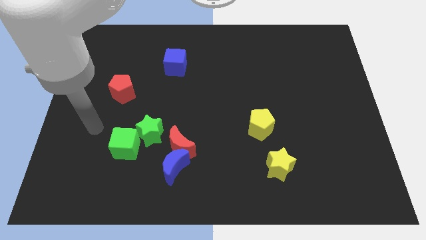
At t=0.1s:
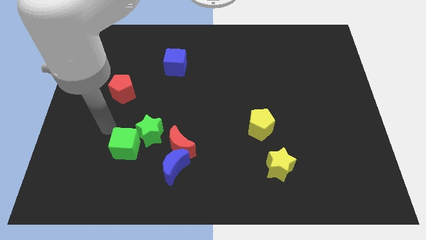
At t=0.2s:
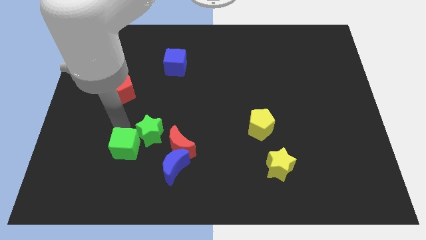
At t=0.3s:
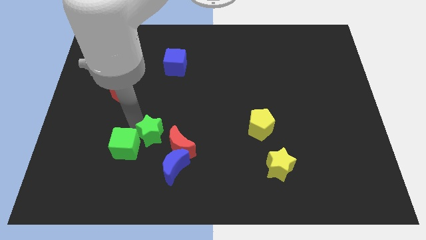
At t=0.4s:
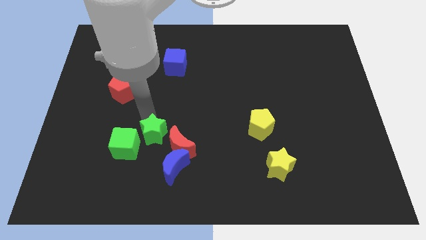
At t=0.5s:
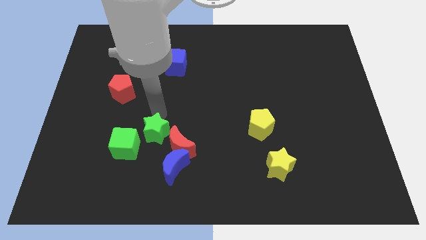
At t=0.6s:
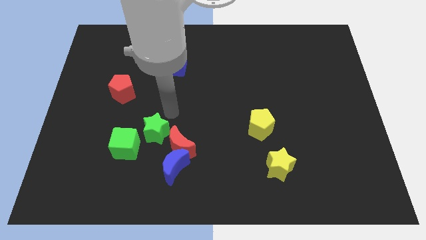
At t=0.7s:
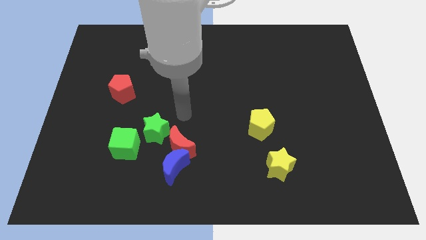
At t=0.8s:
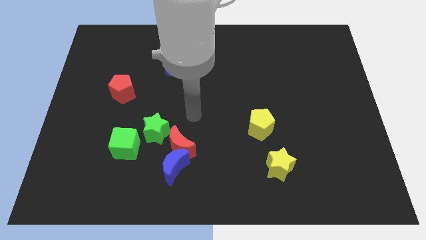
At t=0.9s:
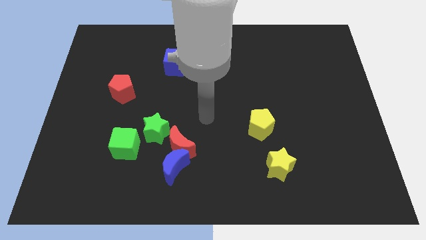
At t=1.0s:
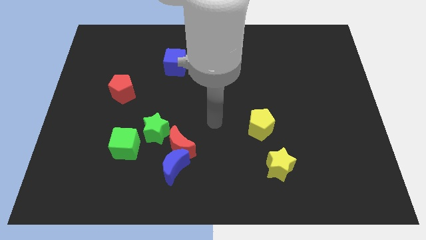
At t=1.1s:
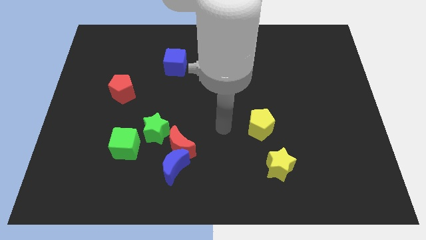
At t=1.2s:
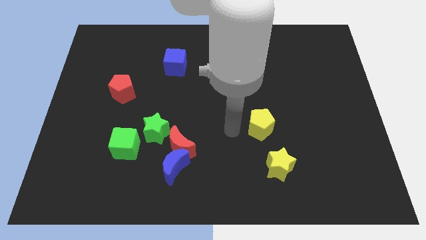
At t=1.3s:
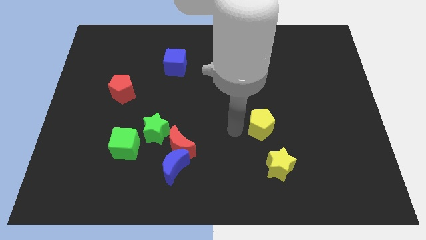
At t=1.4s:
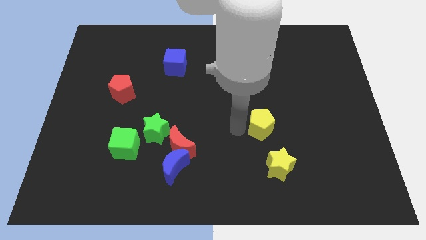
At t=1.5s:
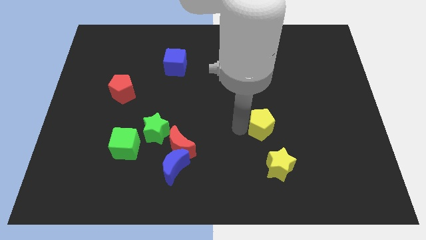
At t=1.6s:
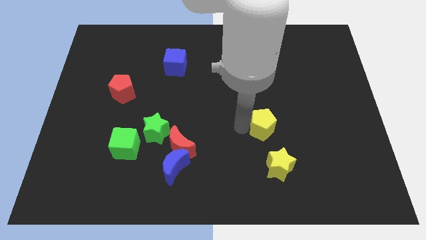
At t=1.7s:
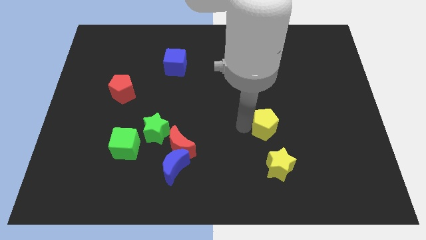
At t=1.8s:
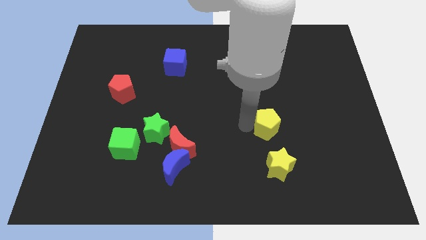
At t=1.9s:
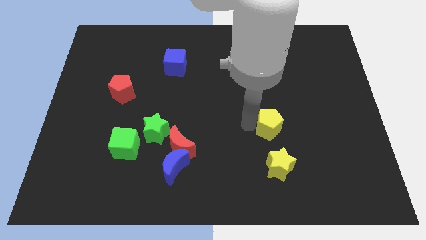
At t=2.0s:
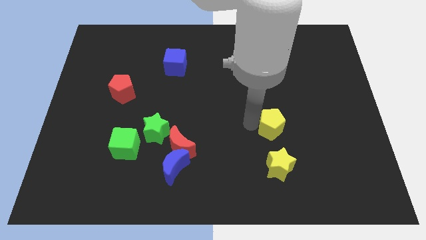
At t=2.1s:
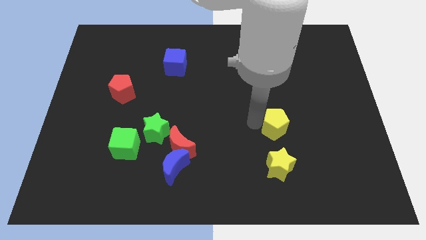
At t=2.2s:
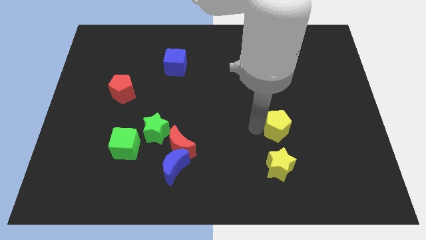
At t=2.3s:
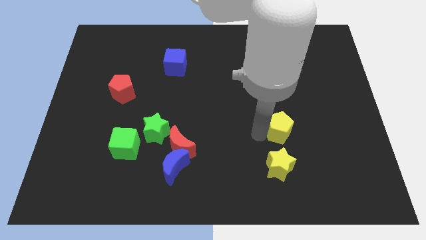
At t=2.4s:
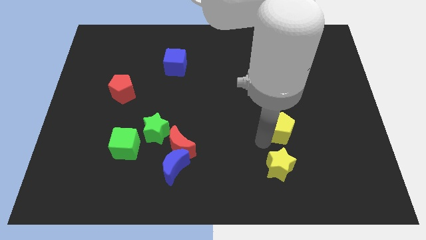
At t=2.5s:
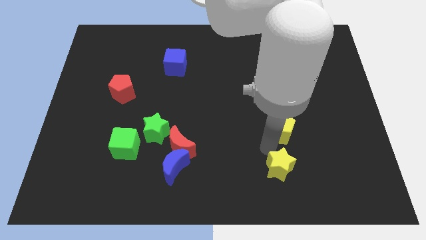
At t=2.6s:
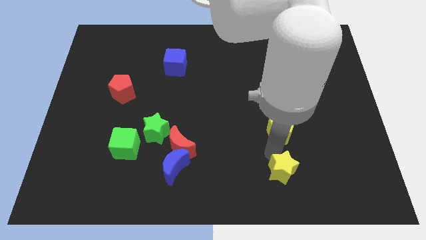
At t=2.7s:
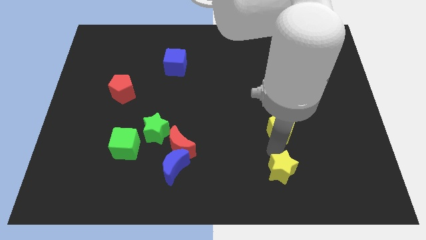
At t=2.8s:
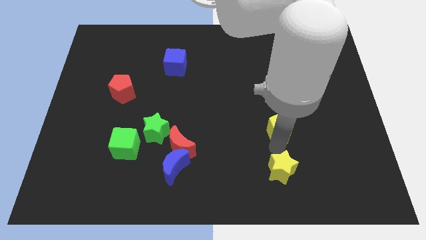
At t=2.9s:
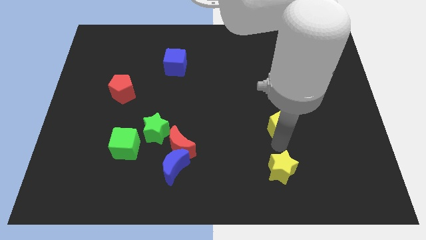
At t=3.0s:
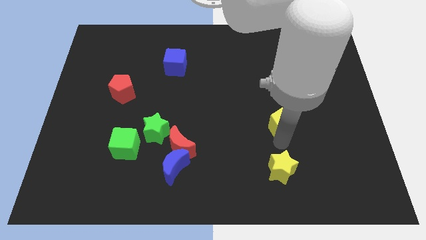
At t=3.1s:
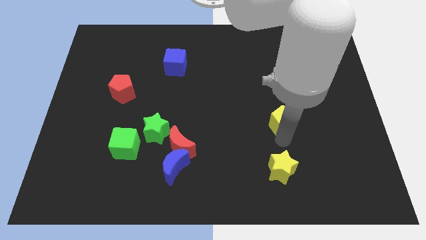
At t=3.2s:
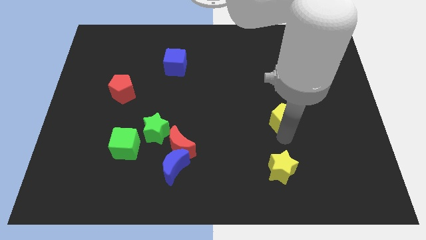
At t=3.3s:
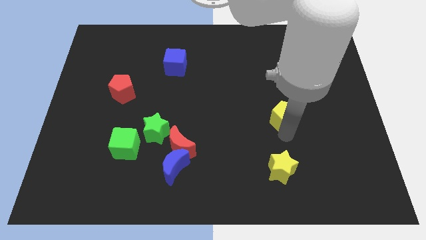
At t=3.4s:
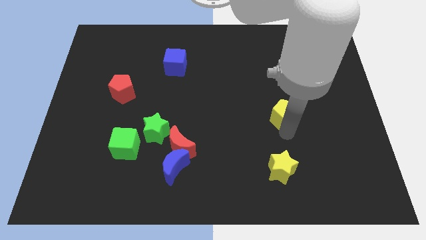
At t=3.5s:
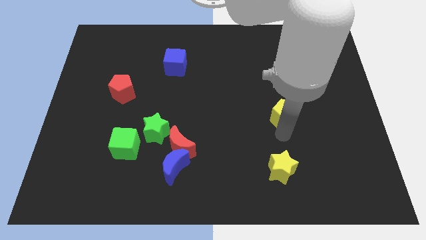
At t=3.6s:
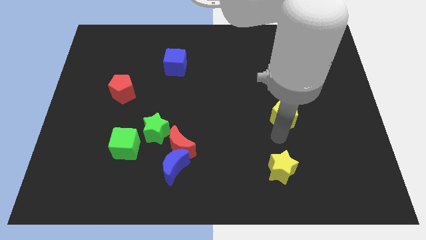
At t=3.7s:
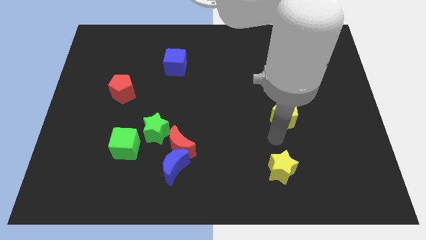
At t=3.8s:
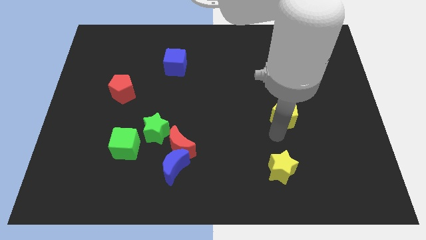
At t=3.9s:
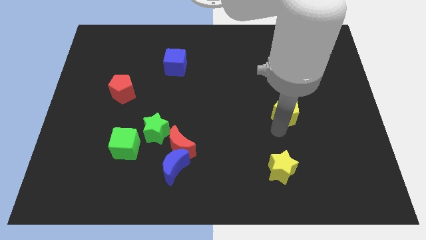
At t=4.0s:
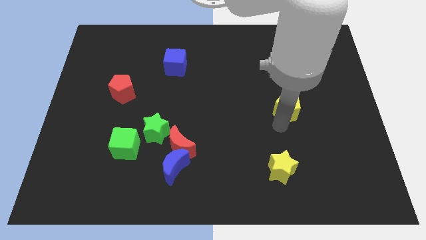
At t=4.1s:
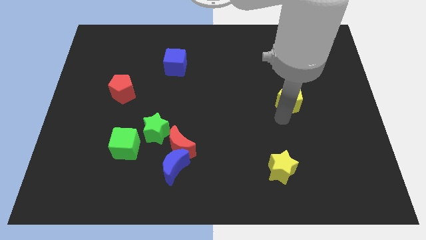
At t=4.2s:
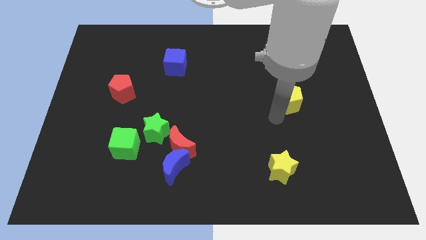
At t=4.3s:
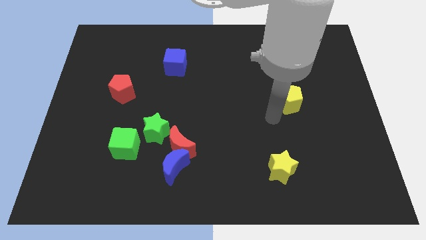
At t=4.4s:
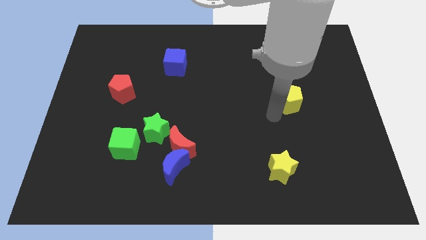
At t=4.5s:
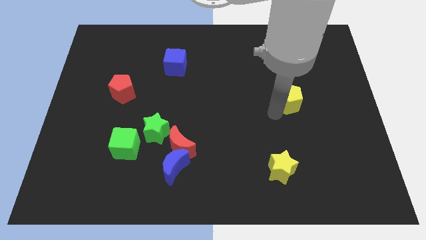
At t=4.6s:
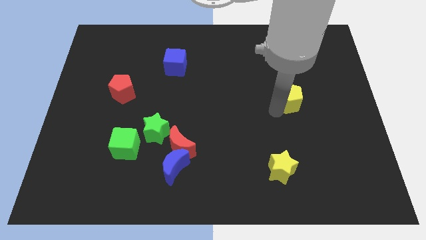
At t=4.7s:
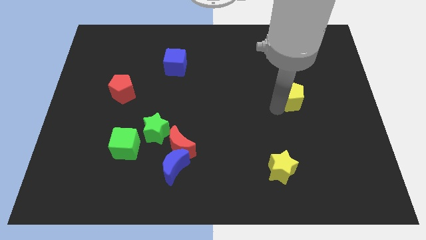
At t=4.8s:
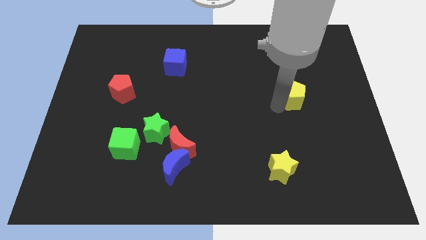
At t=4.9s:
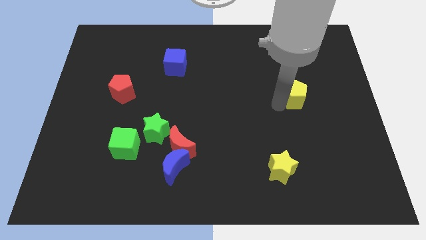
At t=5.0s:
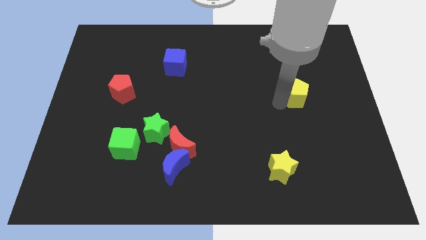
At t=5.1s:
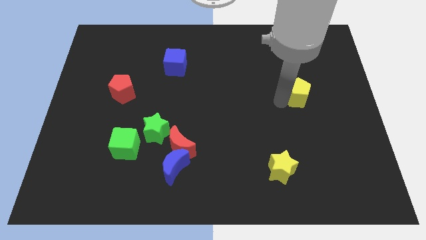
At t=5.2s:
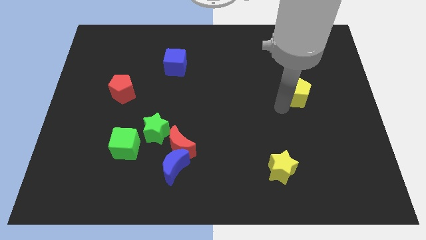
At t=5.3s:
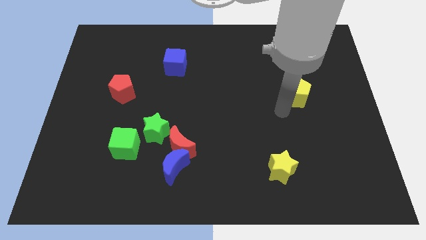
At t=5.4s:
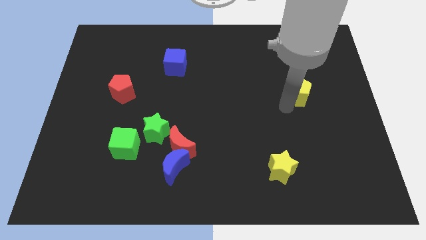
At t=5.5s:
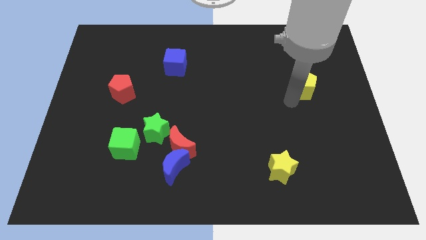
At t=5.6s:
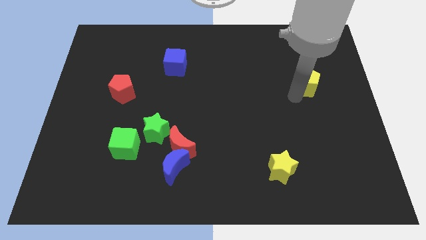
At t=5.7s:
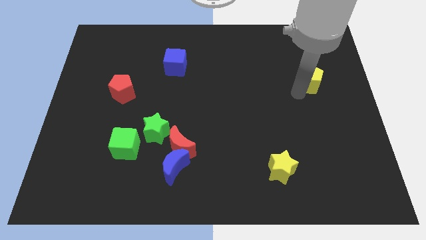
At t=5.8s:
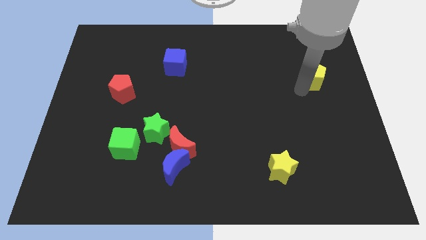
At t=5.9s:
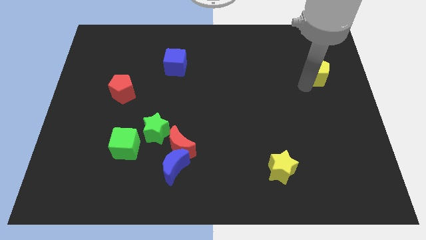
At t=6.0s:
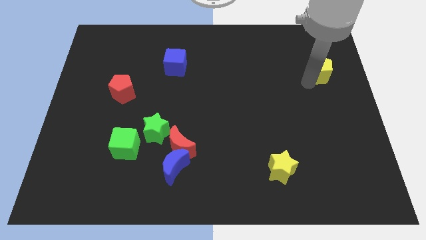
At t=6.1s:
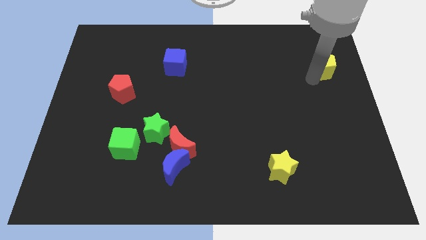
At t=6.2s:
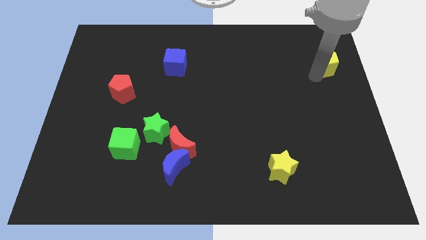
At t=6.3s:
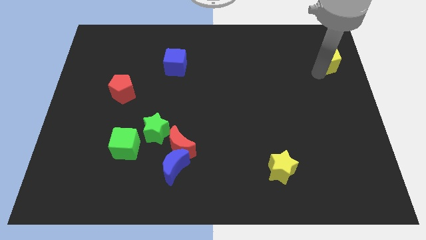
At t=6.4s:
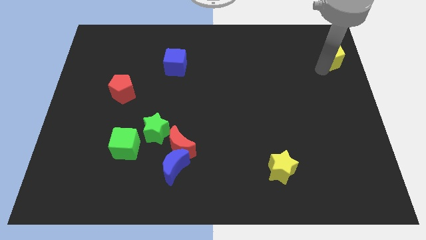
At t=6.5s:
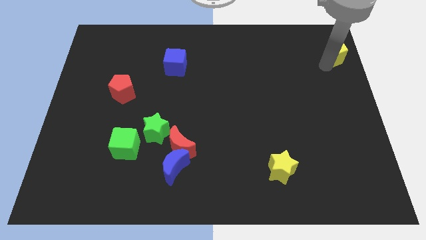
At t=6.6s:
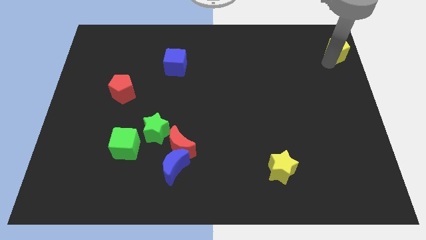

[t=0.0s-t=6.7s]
push the yellow pentagon to the top right
